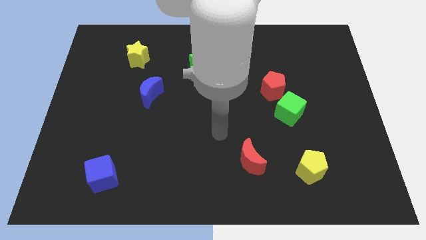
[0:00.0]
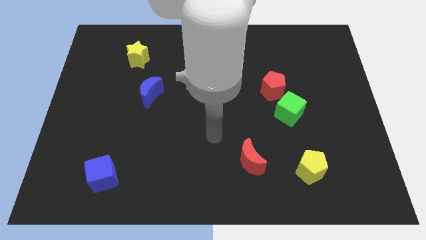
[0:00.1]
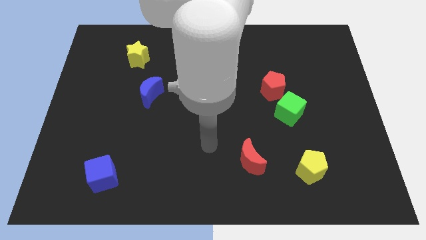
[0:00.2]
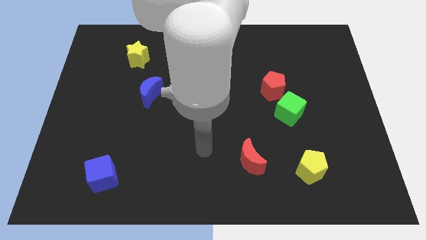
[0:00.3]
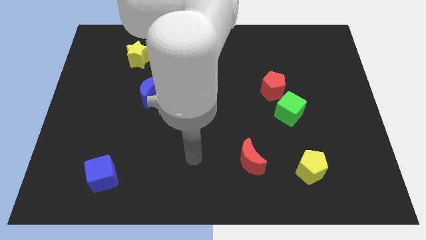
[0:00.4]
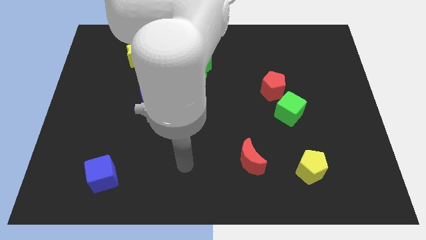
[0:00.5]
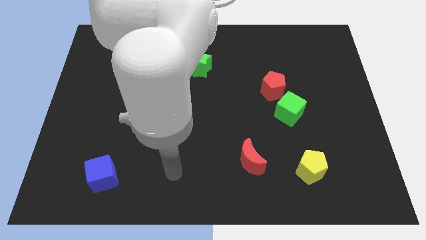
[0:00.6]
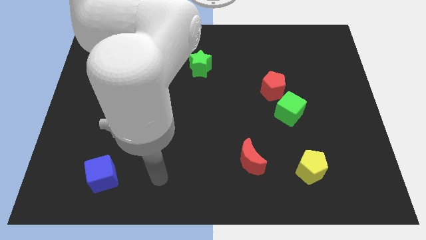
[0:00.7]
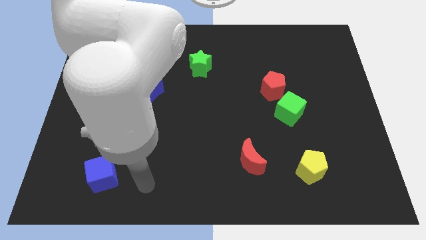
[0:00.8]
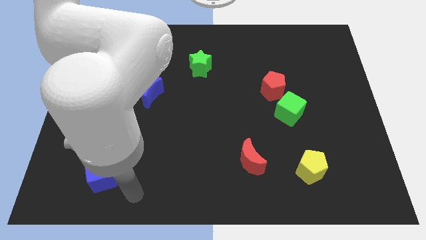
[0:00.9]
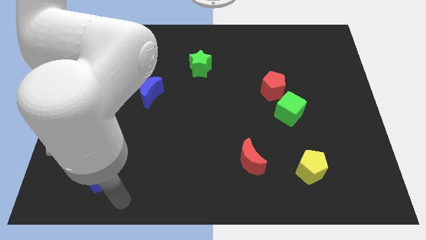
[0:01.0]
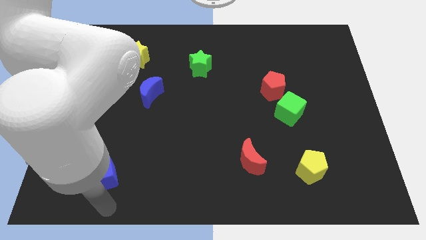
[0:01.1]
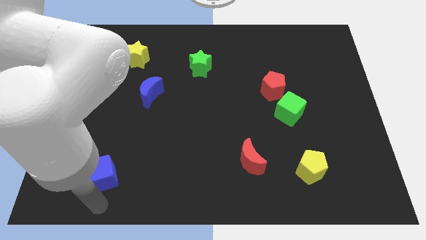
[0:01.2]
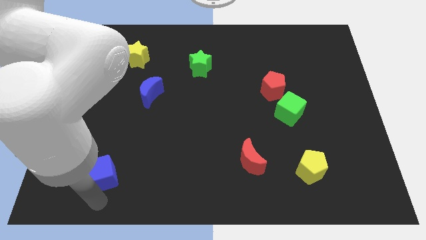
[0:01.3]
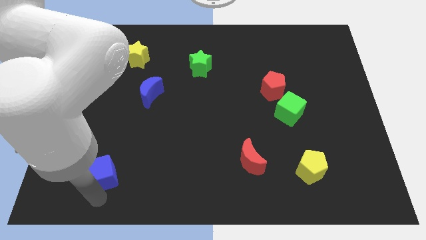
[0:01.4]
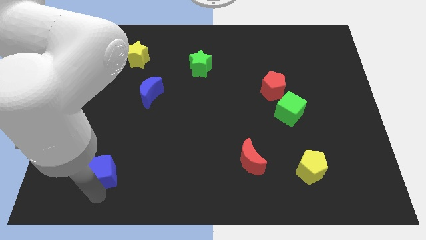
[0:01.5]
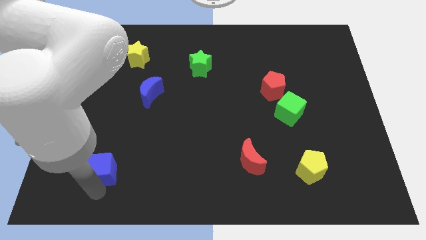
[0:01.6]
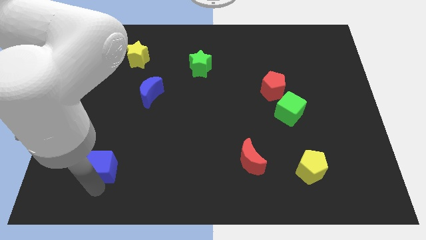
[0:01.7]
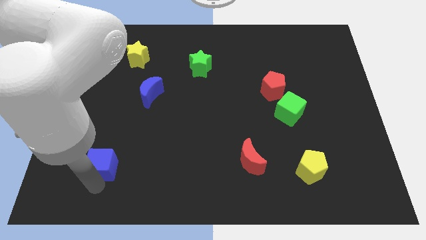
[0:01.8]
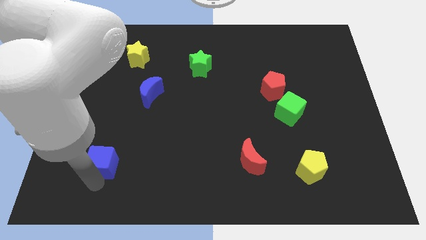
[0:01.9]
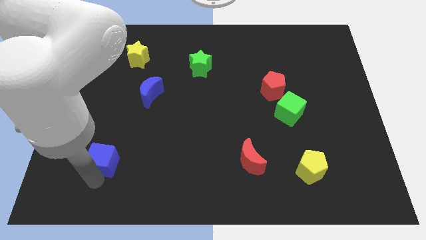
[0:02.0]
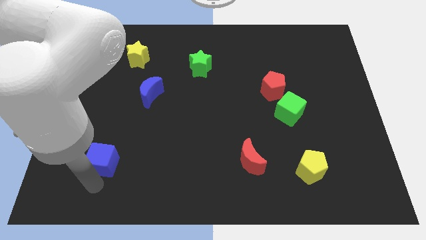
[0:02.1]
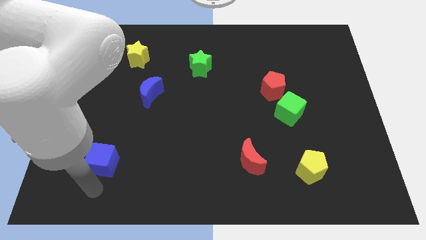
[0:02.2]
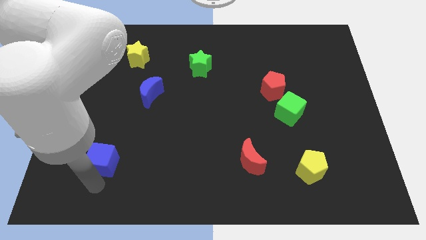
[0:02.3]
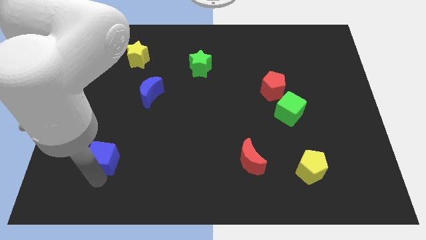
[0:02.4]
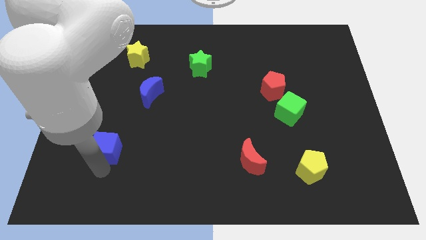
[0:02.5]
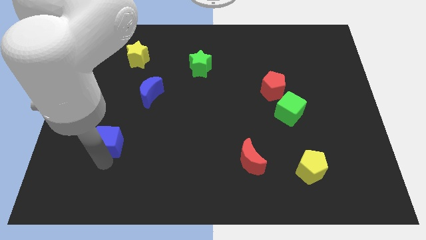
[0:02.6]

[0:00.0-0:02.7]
move the blue cube upwards a little

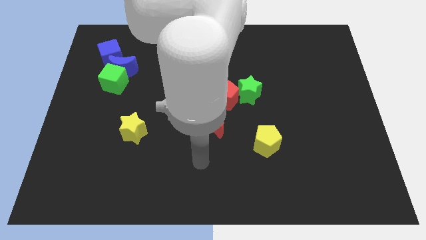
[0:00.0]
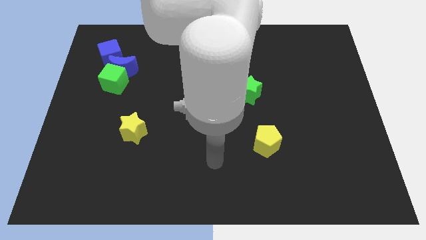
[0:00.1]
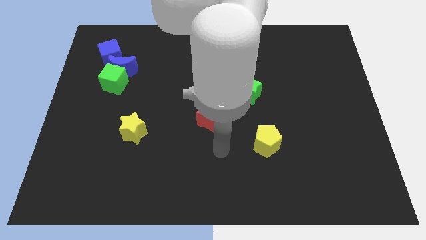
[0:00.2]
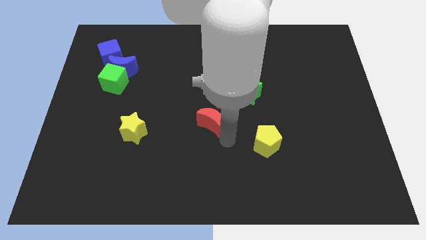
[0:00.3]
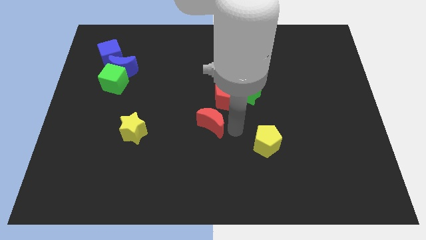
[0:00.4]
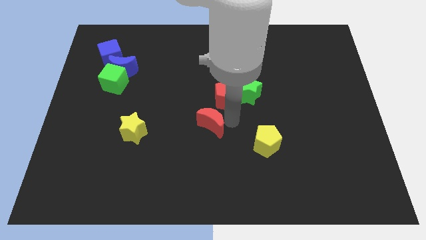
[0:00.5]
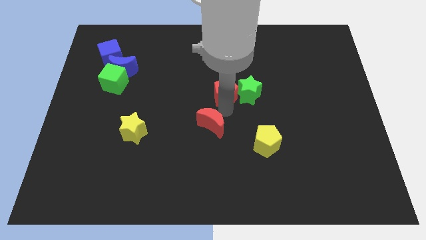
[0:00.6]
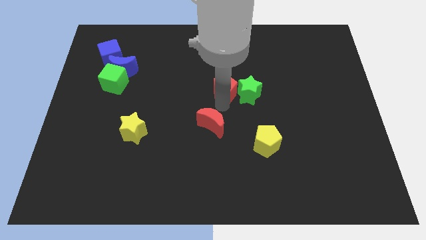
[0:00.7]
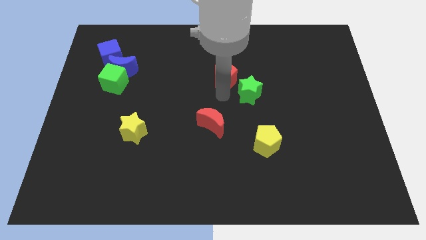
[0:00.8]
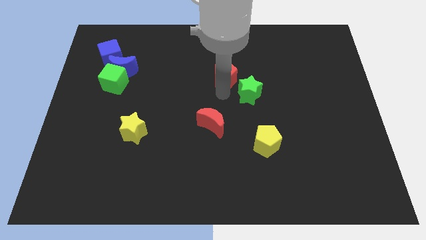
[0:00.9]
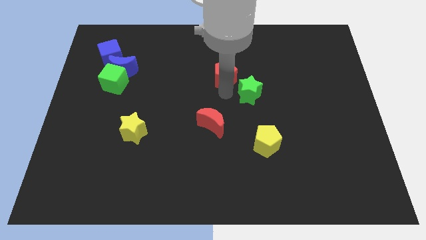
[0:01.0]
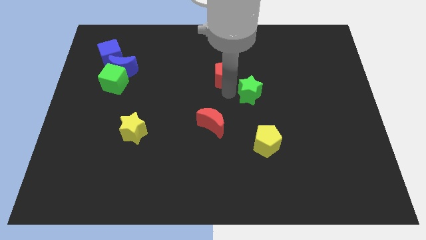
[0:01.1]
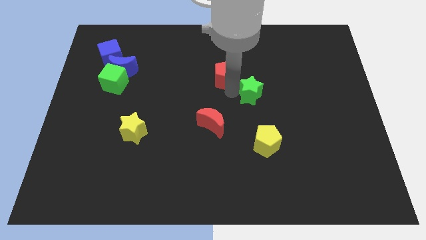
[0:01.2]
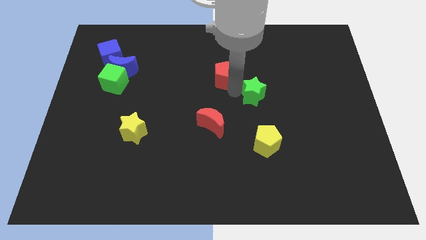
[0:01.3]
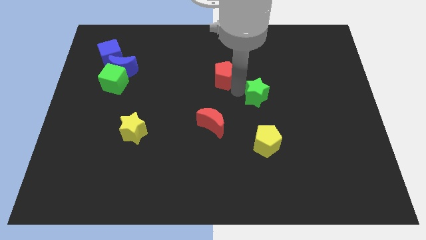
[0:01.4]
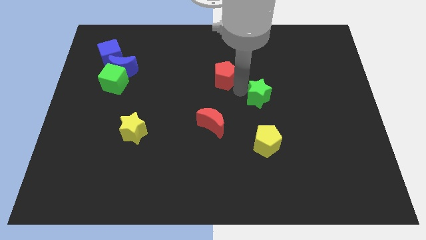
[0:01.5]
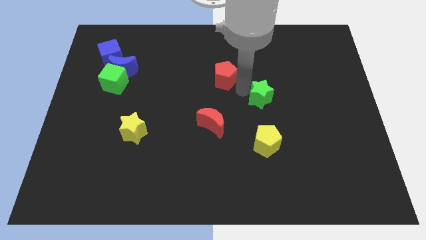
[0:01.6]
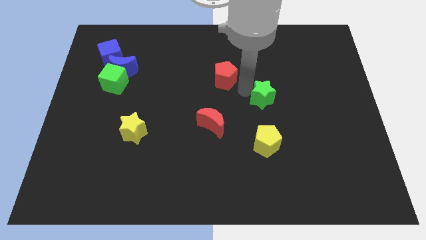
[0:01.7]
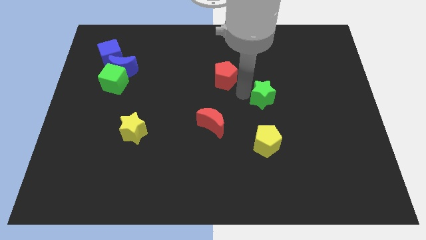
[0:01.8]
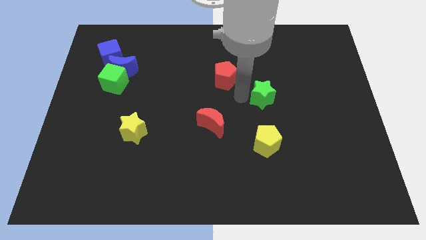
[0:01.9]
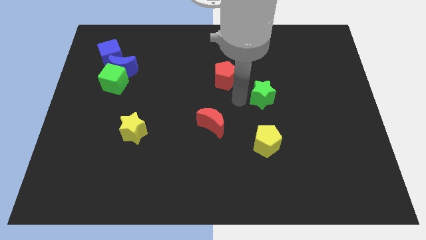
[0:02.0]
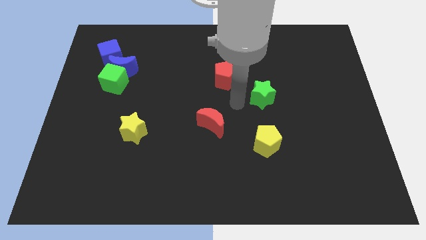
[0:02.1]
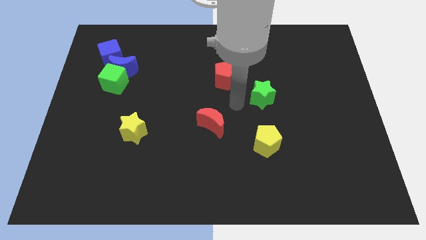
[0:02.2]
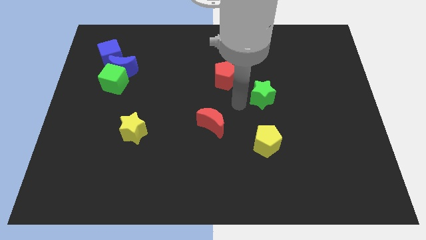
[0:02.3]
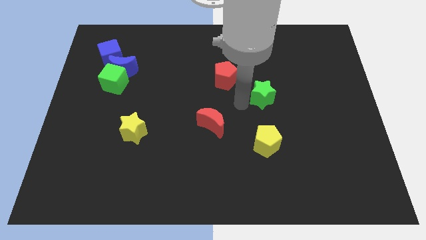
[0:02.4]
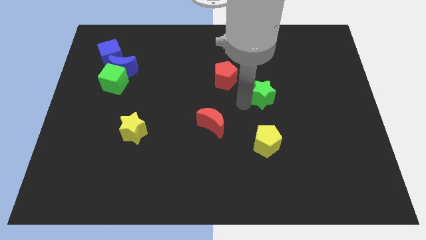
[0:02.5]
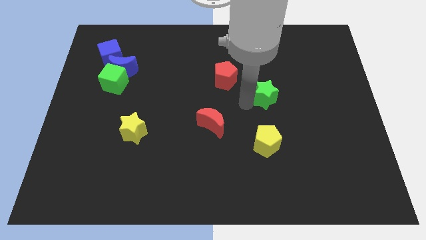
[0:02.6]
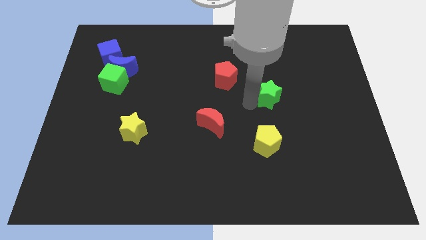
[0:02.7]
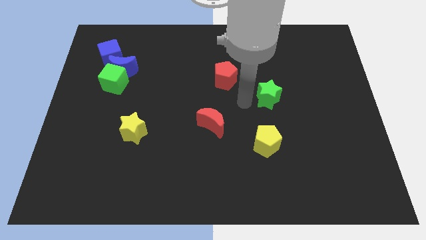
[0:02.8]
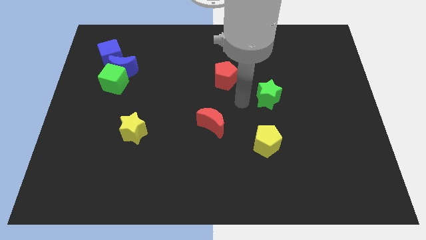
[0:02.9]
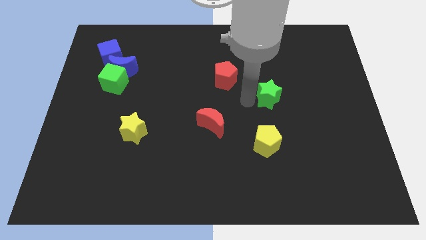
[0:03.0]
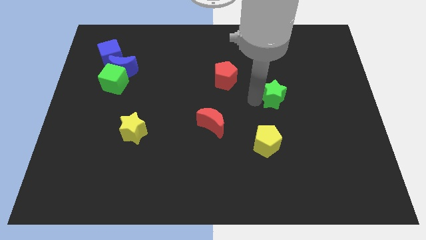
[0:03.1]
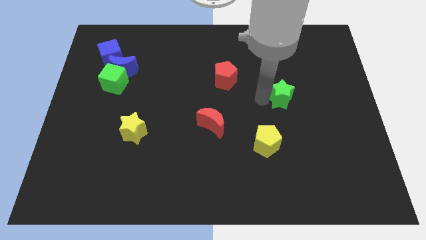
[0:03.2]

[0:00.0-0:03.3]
slide the green star slightly to the right

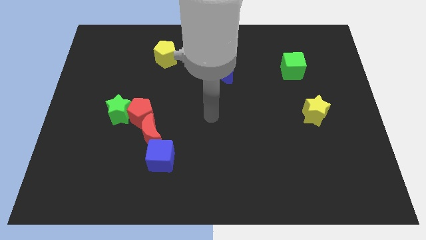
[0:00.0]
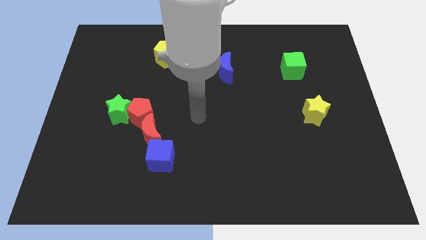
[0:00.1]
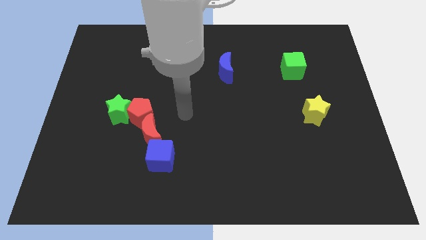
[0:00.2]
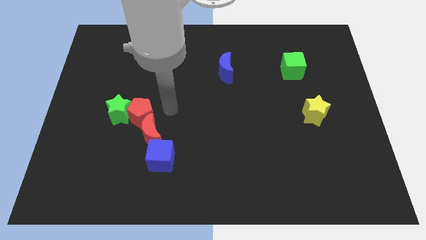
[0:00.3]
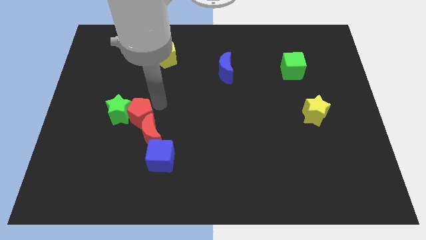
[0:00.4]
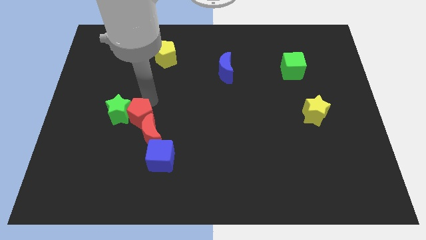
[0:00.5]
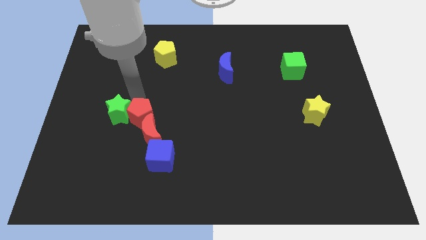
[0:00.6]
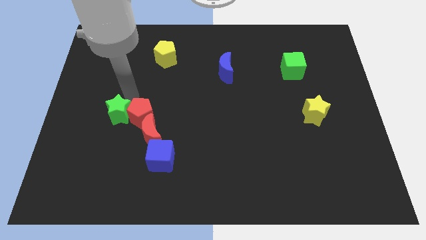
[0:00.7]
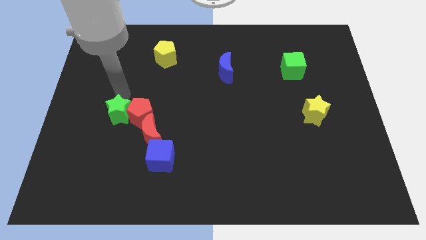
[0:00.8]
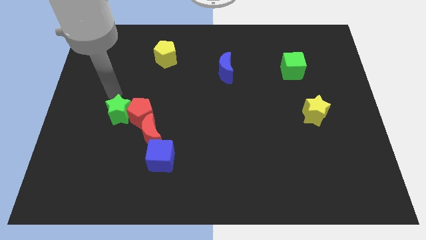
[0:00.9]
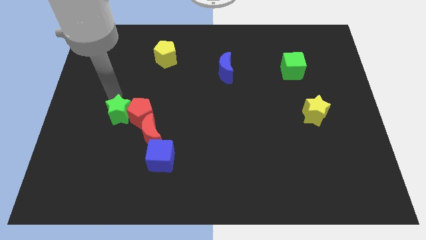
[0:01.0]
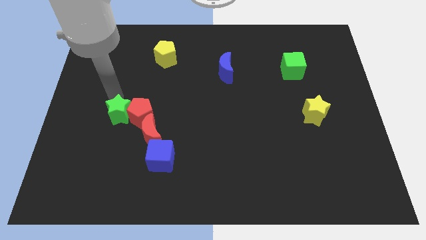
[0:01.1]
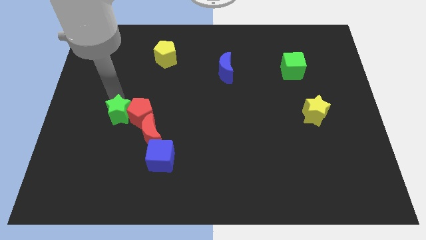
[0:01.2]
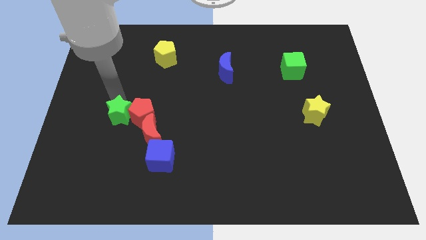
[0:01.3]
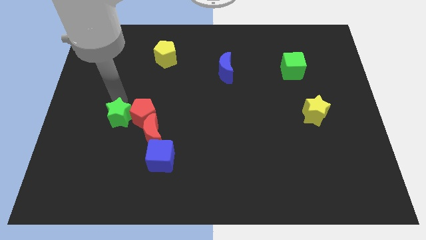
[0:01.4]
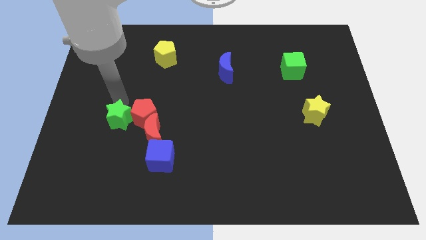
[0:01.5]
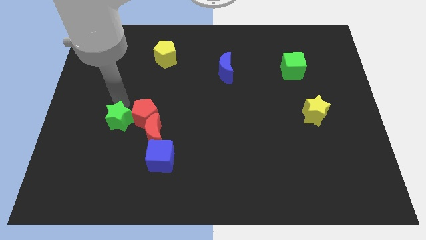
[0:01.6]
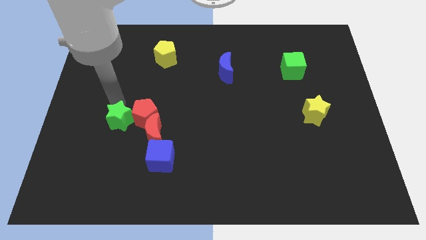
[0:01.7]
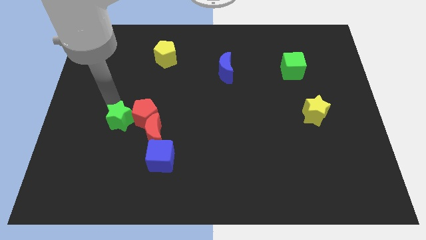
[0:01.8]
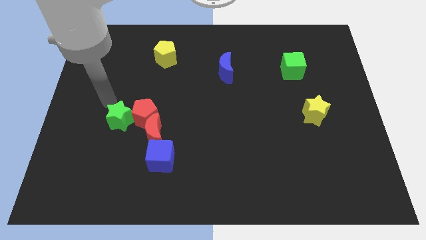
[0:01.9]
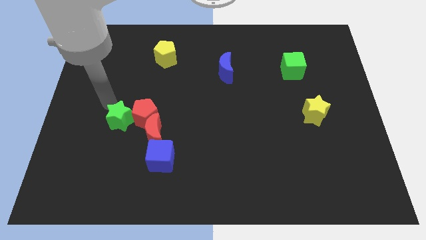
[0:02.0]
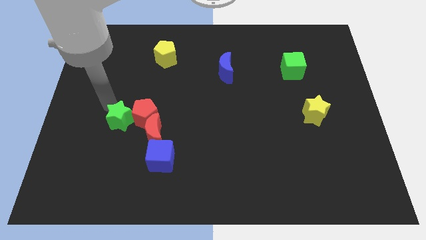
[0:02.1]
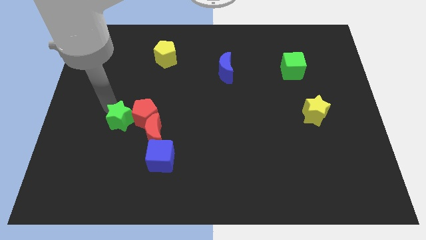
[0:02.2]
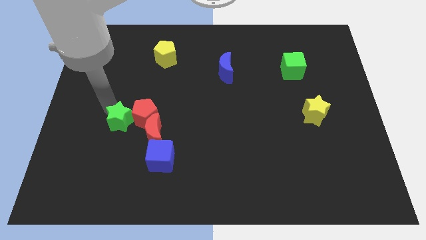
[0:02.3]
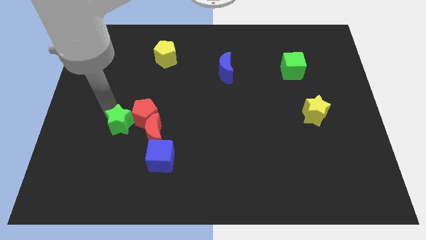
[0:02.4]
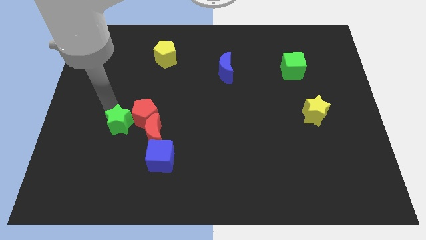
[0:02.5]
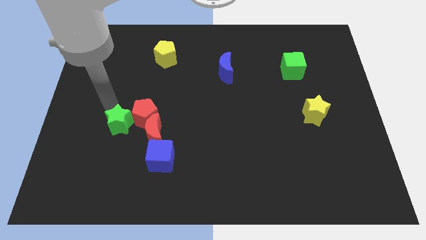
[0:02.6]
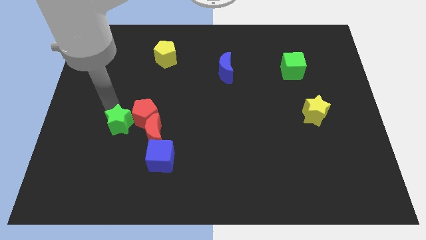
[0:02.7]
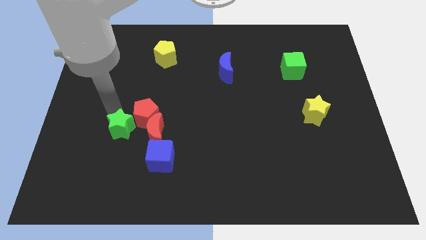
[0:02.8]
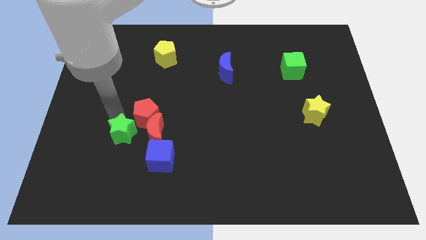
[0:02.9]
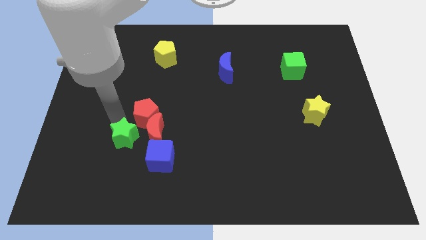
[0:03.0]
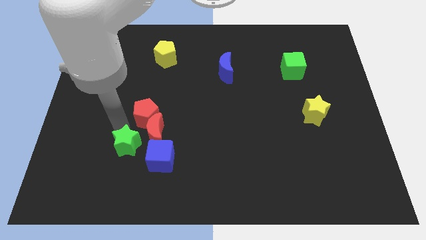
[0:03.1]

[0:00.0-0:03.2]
slide the green star diagonally down and right a little bit
